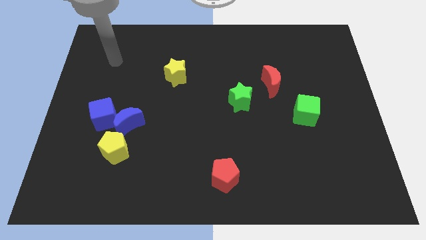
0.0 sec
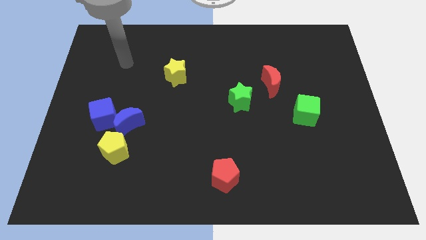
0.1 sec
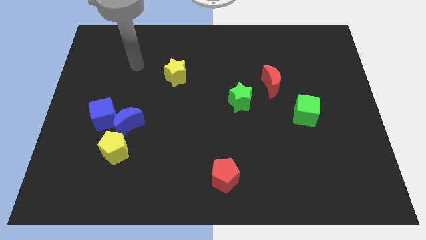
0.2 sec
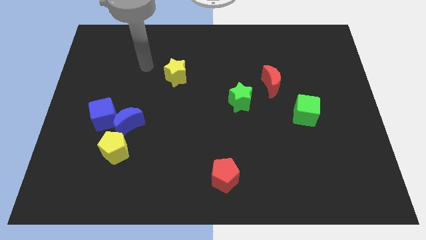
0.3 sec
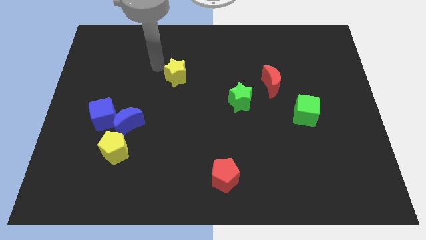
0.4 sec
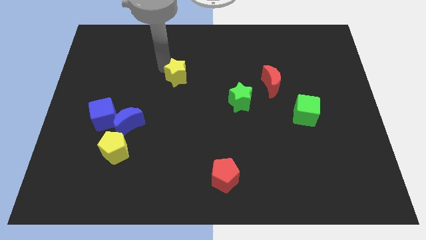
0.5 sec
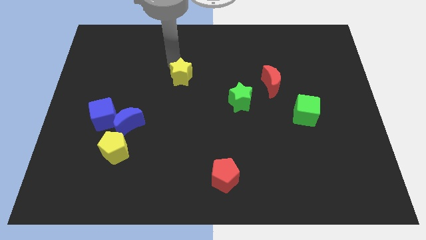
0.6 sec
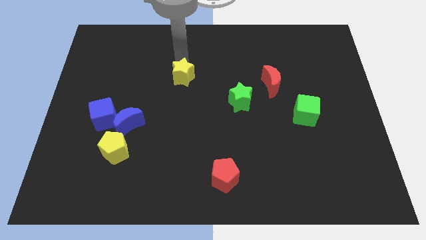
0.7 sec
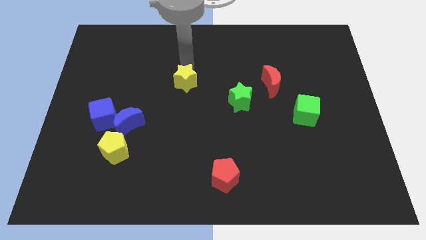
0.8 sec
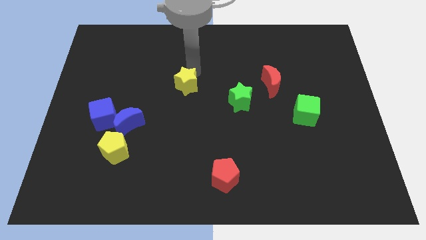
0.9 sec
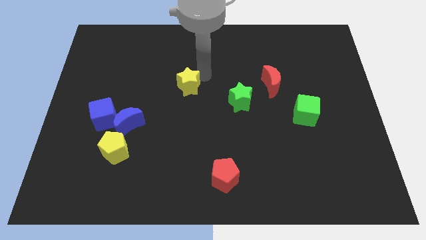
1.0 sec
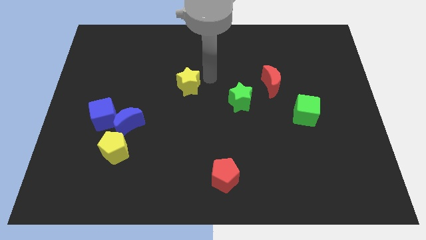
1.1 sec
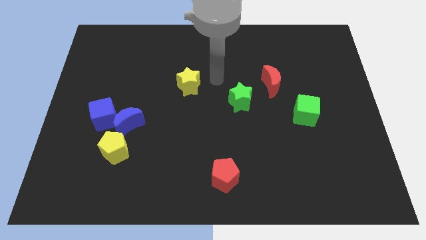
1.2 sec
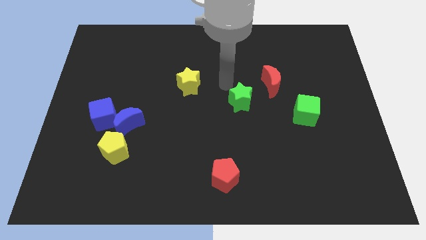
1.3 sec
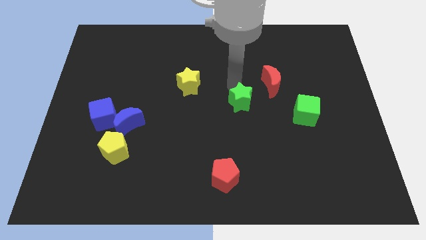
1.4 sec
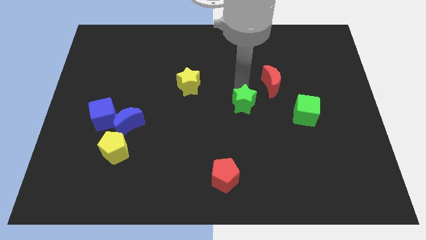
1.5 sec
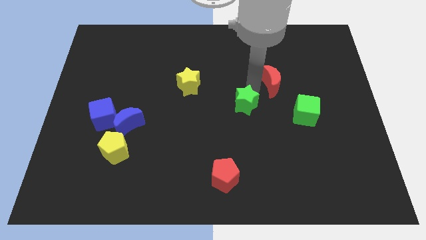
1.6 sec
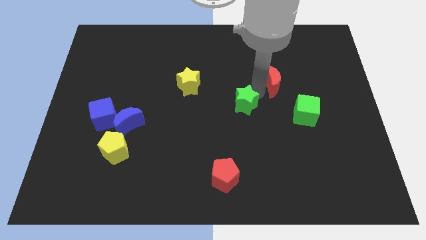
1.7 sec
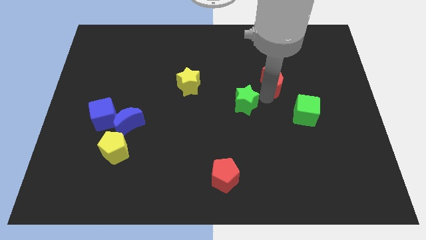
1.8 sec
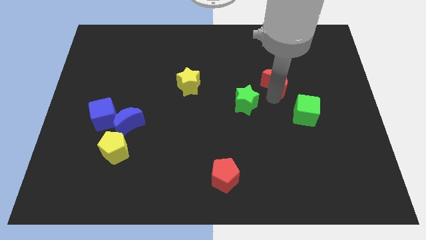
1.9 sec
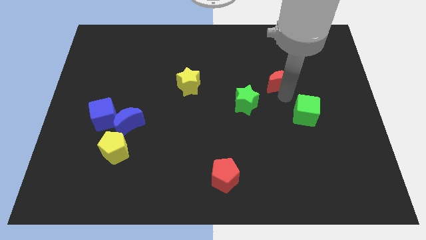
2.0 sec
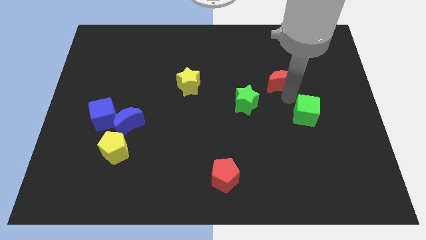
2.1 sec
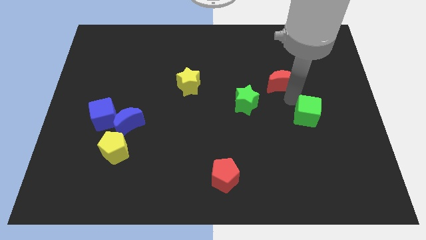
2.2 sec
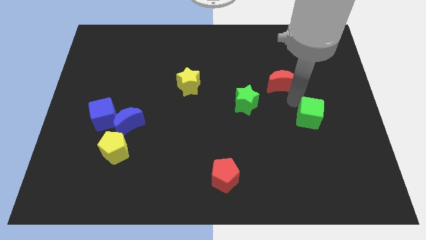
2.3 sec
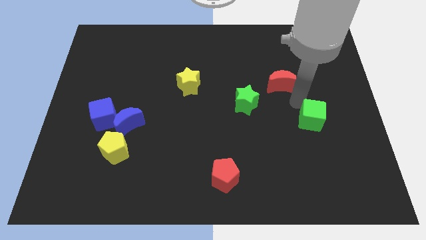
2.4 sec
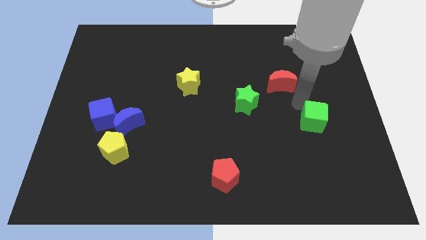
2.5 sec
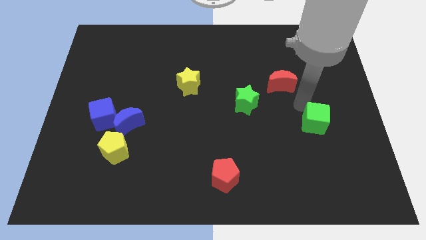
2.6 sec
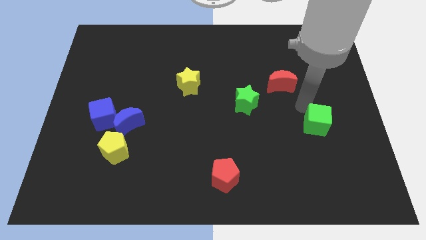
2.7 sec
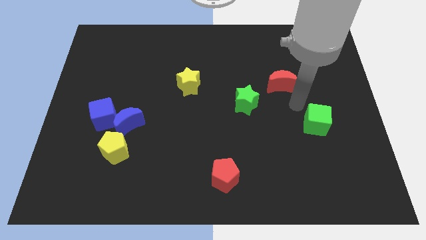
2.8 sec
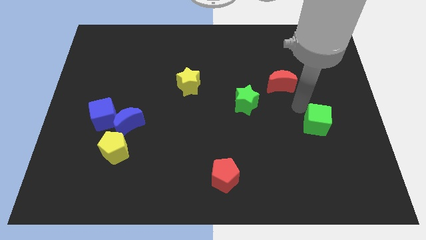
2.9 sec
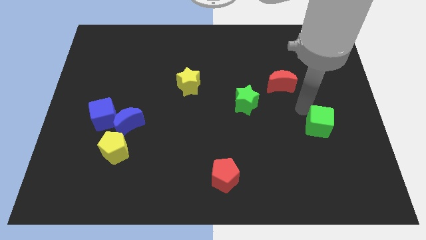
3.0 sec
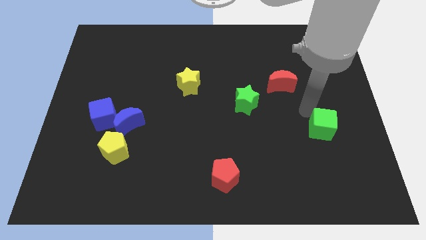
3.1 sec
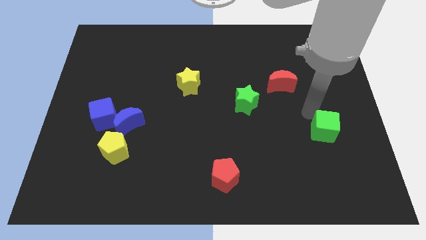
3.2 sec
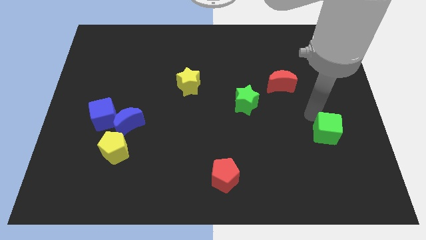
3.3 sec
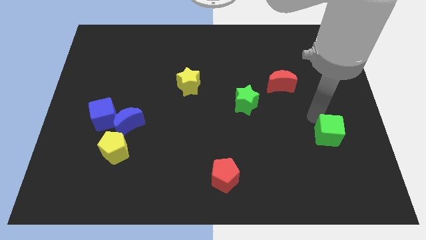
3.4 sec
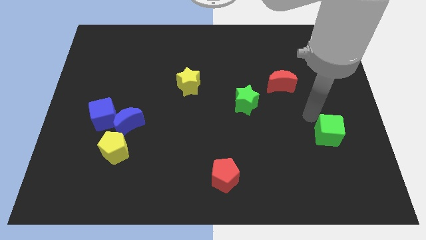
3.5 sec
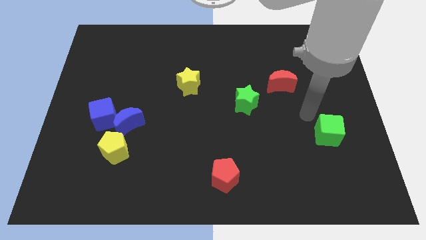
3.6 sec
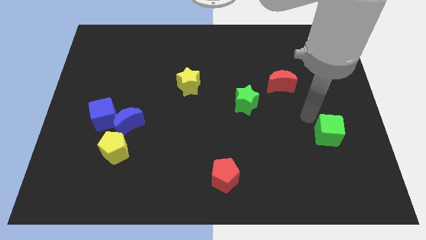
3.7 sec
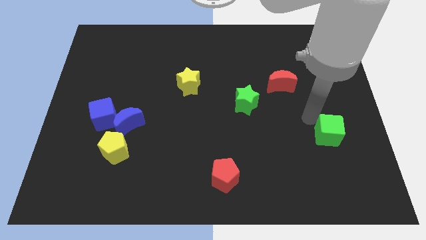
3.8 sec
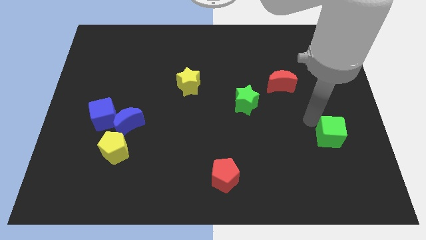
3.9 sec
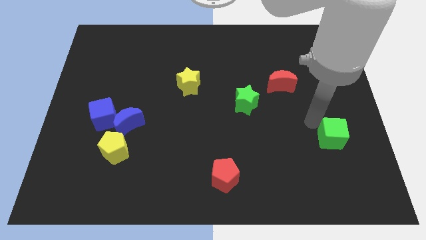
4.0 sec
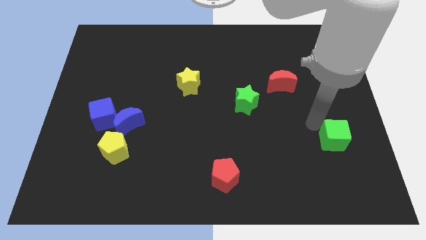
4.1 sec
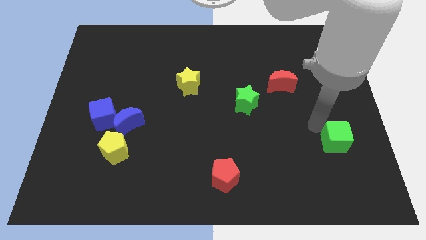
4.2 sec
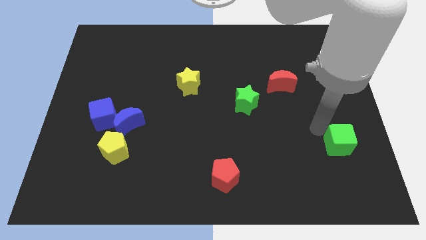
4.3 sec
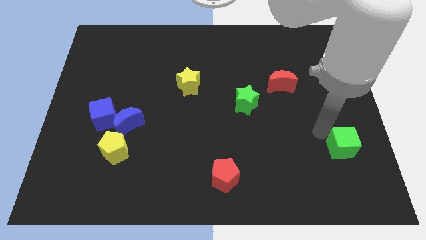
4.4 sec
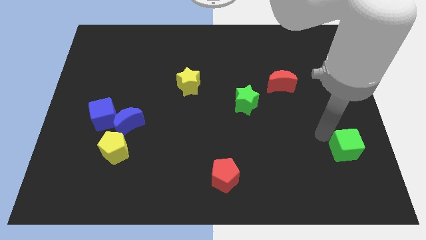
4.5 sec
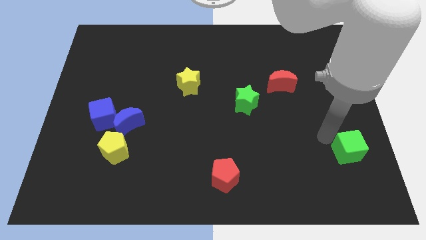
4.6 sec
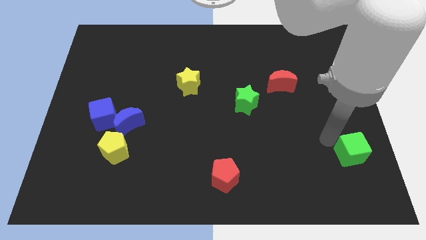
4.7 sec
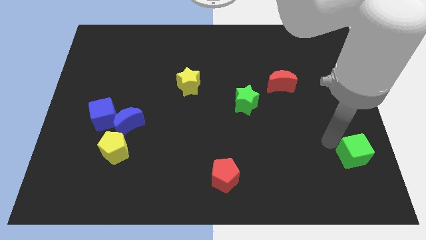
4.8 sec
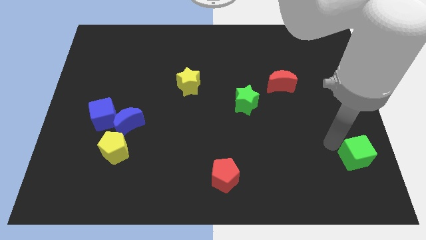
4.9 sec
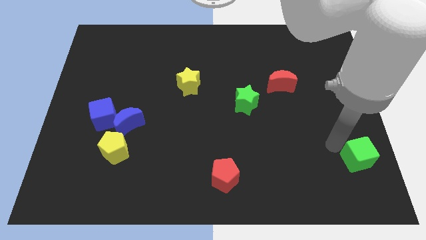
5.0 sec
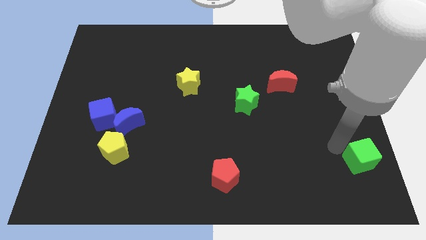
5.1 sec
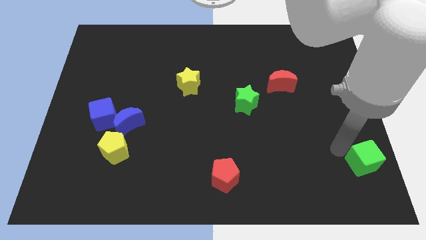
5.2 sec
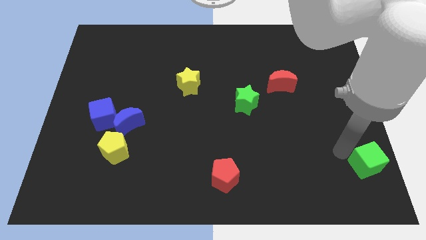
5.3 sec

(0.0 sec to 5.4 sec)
put the green cube to the bottom right

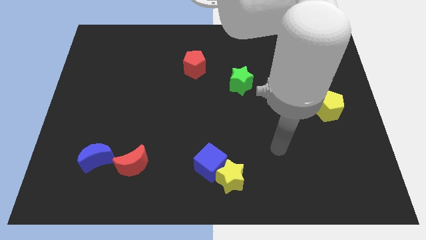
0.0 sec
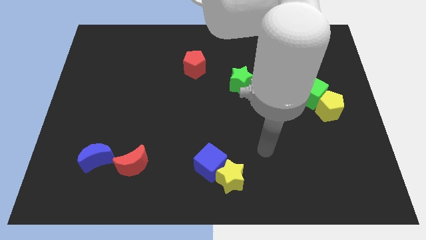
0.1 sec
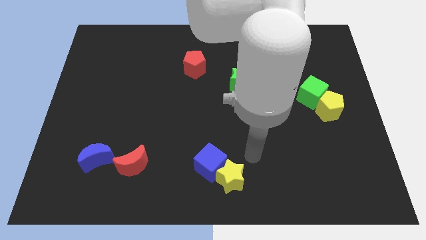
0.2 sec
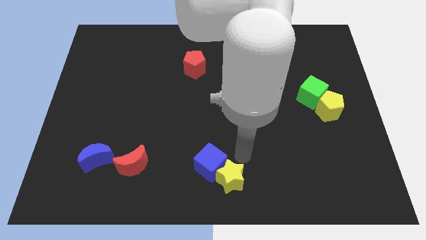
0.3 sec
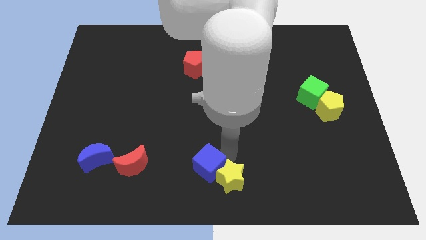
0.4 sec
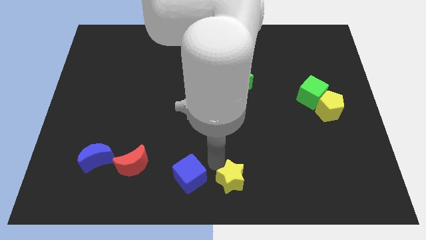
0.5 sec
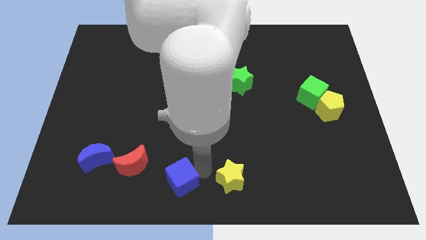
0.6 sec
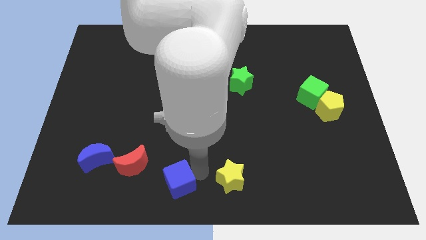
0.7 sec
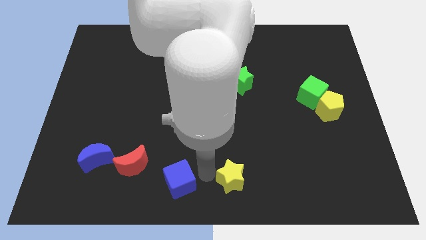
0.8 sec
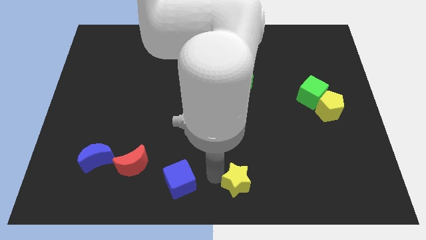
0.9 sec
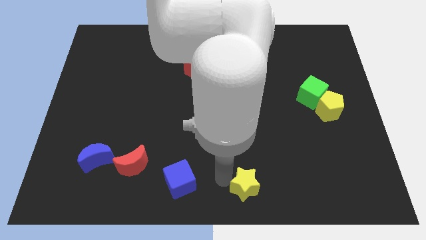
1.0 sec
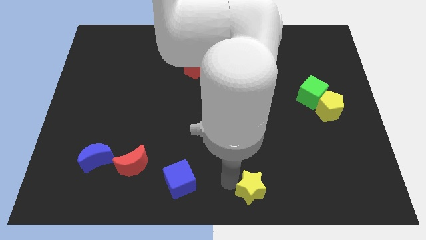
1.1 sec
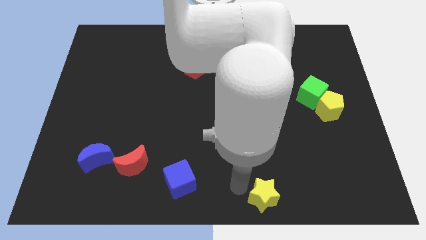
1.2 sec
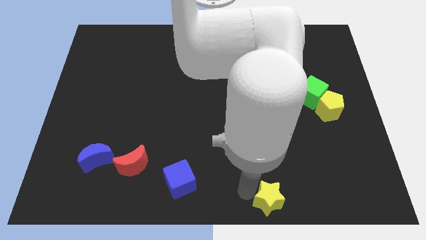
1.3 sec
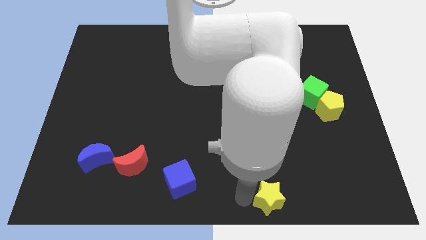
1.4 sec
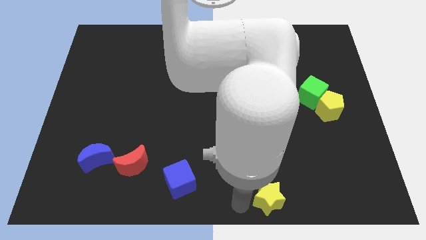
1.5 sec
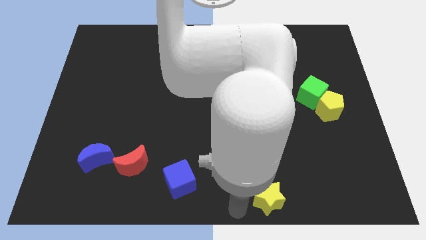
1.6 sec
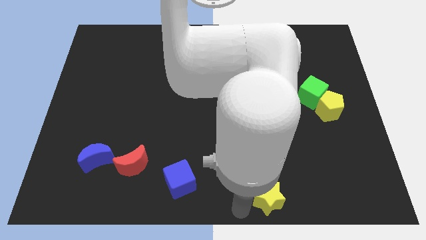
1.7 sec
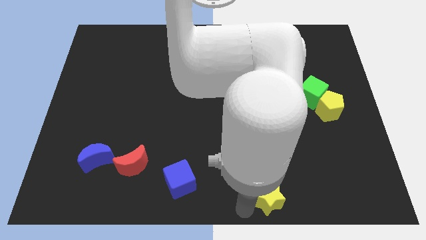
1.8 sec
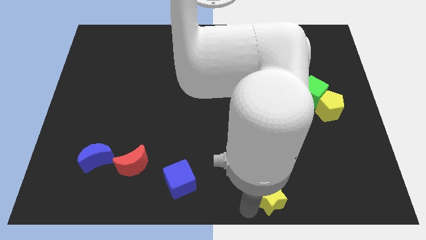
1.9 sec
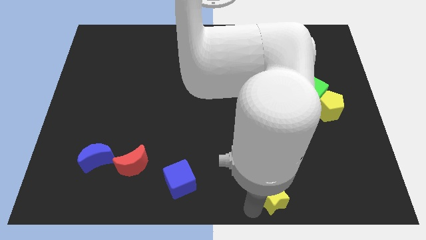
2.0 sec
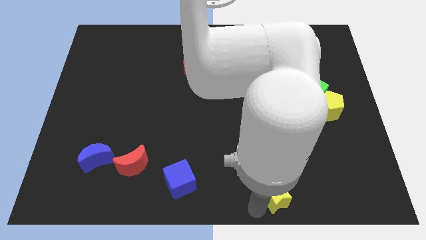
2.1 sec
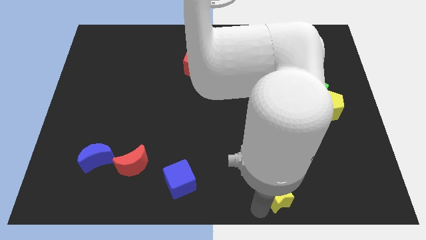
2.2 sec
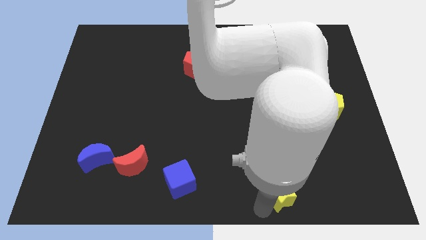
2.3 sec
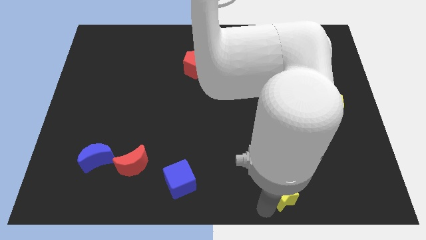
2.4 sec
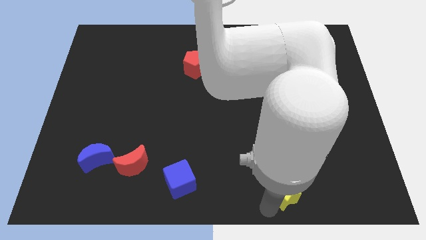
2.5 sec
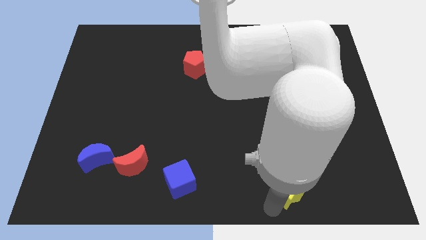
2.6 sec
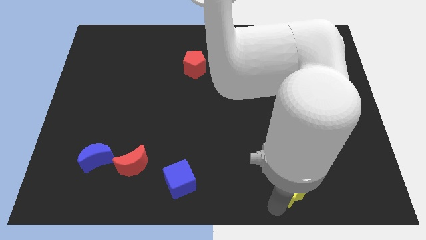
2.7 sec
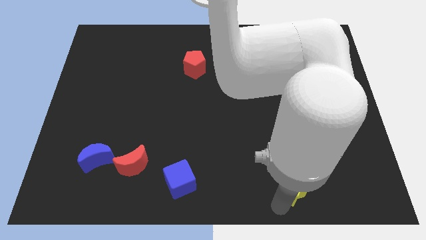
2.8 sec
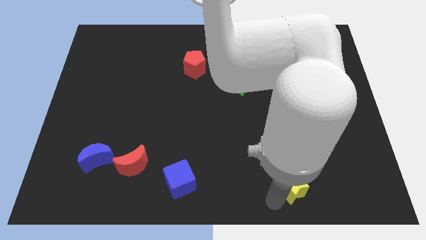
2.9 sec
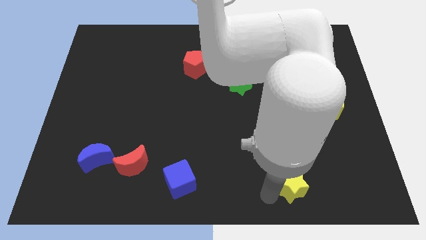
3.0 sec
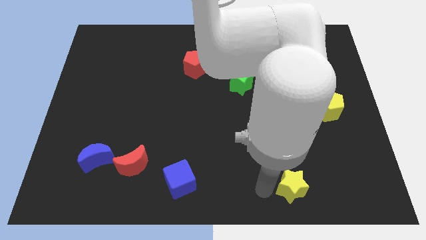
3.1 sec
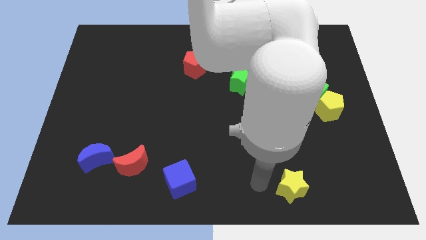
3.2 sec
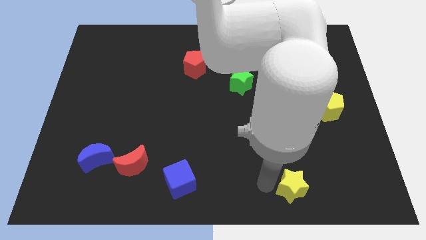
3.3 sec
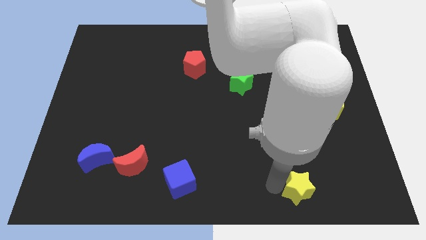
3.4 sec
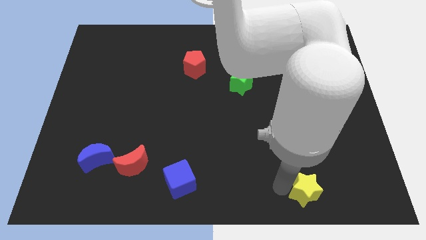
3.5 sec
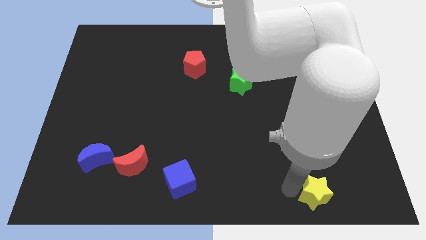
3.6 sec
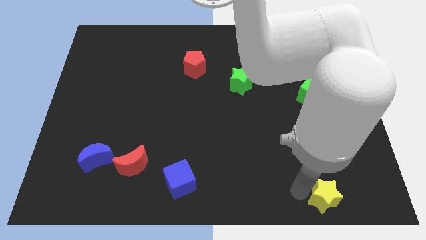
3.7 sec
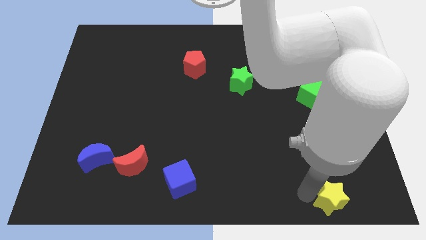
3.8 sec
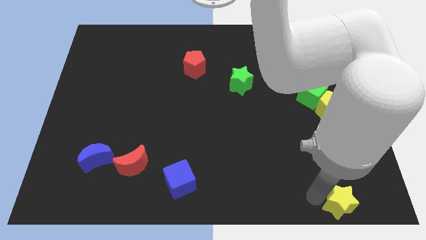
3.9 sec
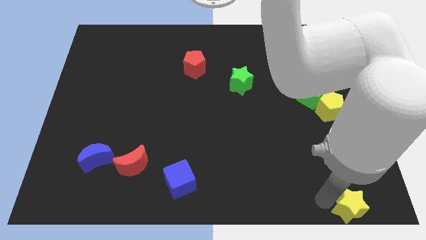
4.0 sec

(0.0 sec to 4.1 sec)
move the yellow star to the bottom right of the board
